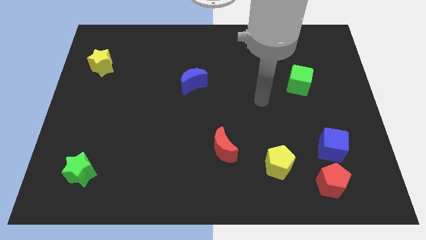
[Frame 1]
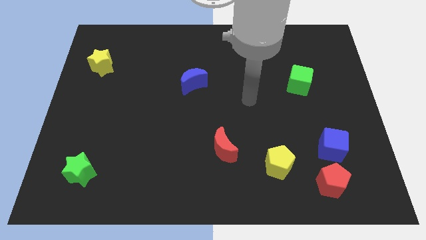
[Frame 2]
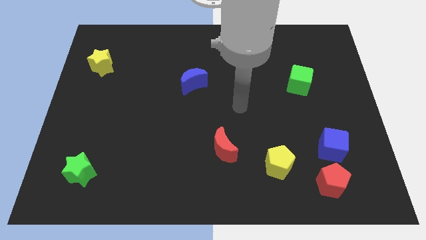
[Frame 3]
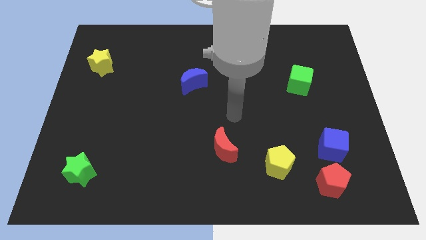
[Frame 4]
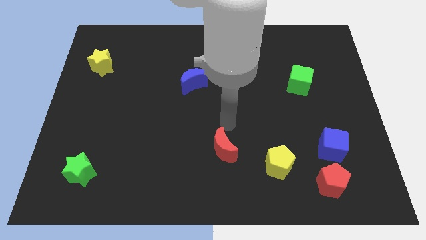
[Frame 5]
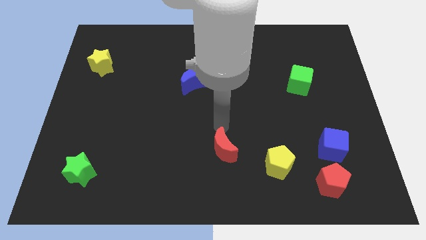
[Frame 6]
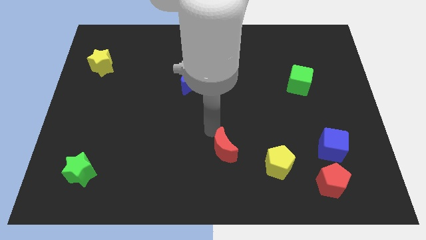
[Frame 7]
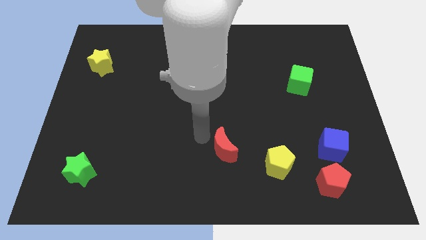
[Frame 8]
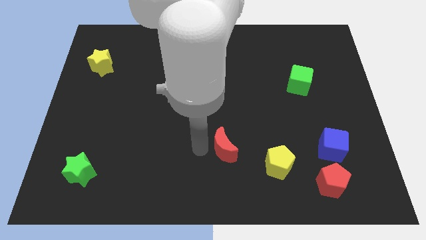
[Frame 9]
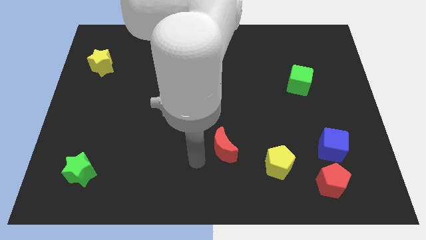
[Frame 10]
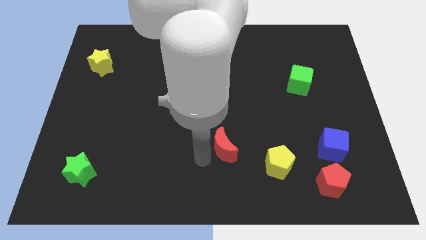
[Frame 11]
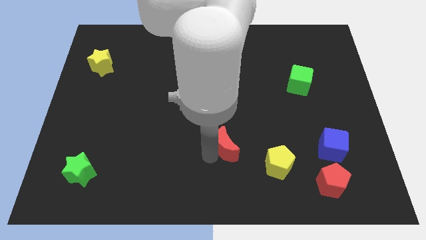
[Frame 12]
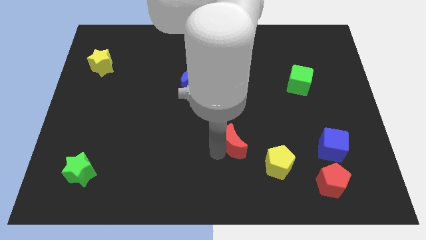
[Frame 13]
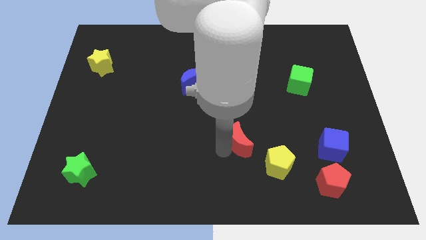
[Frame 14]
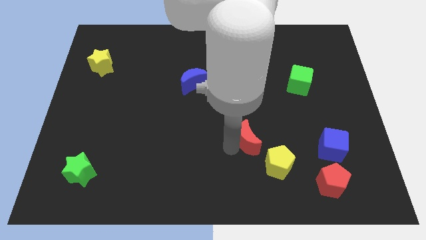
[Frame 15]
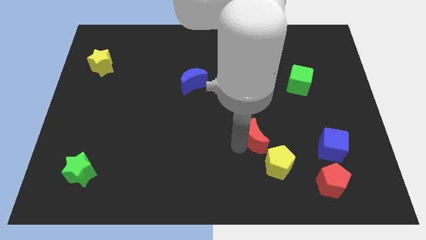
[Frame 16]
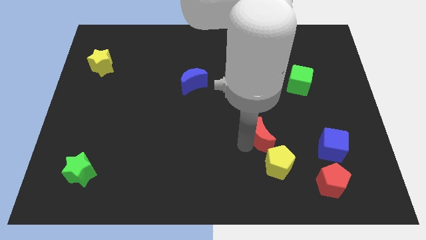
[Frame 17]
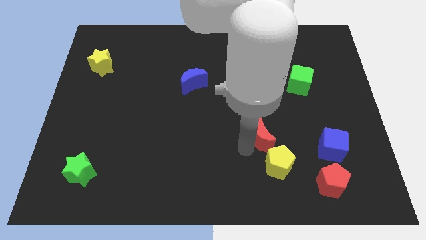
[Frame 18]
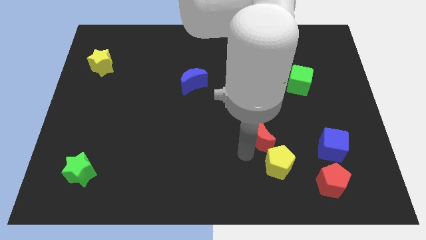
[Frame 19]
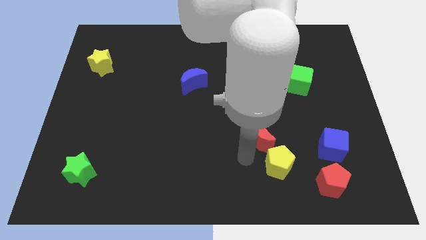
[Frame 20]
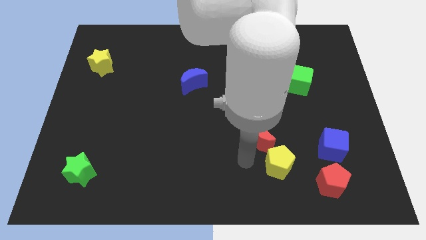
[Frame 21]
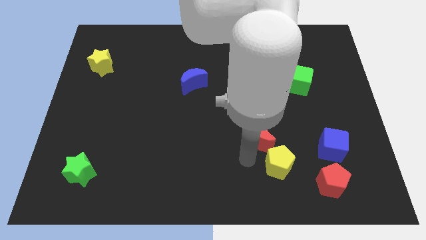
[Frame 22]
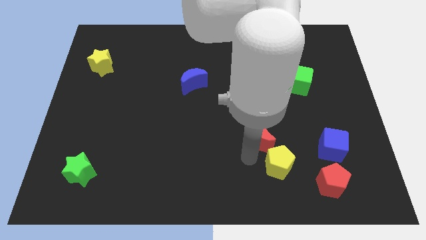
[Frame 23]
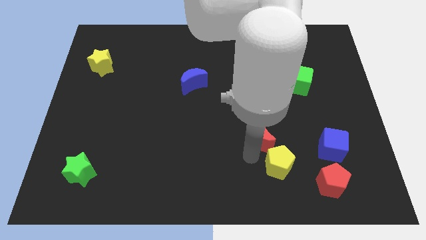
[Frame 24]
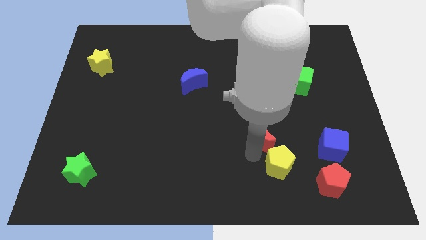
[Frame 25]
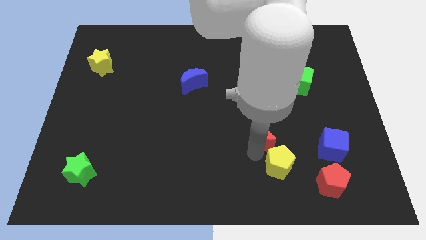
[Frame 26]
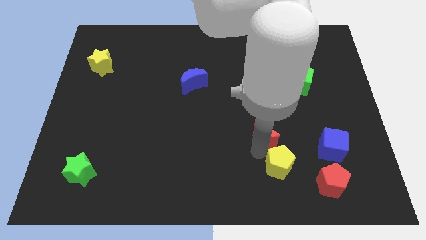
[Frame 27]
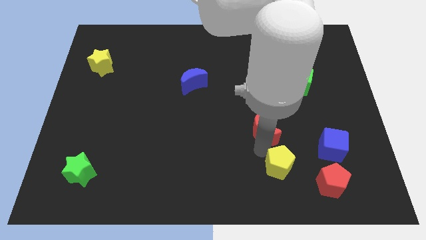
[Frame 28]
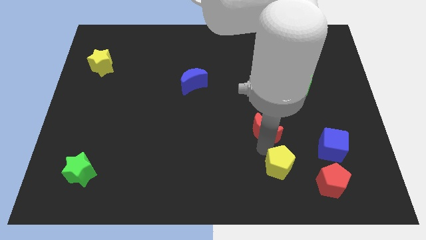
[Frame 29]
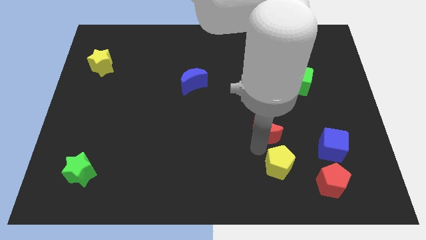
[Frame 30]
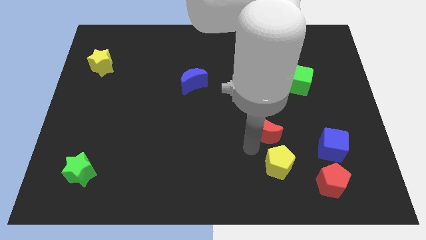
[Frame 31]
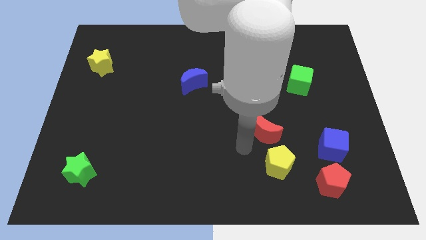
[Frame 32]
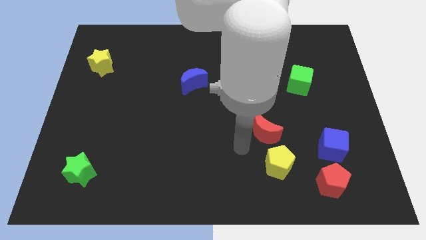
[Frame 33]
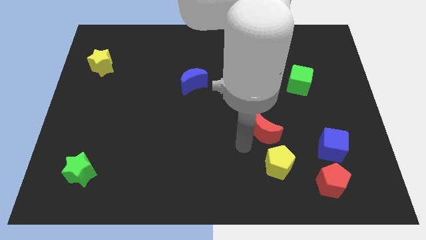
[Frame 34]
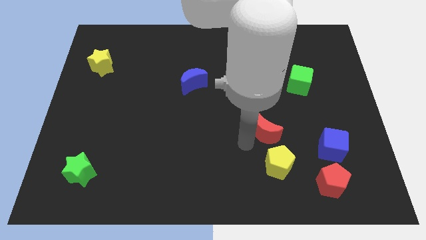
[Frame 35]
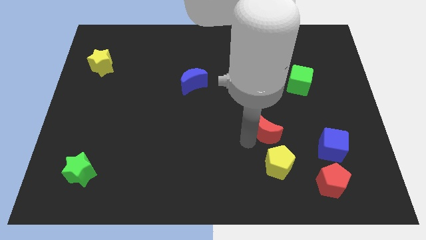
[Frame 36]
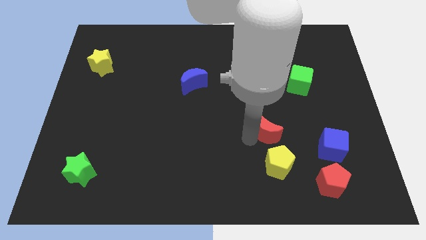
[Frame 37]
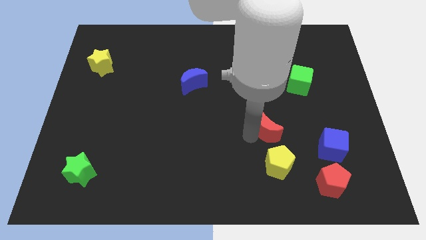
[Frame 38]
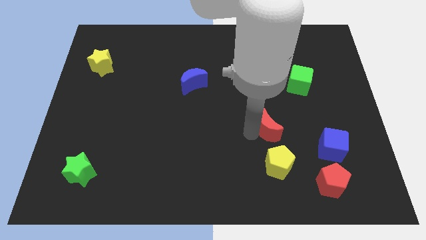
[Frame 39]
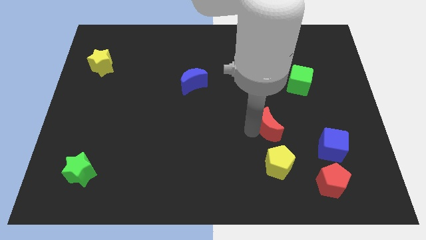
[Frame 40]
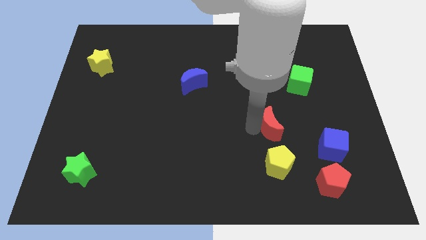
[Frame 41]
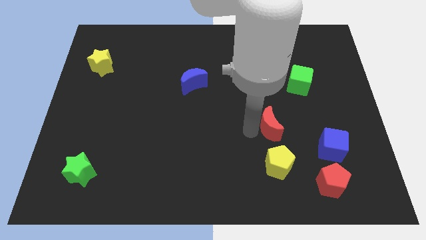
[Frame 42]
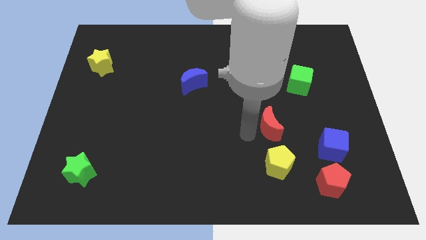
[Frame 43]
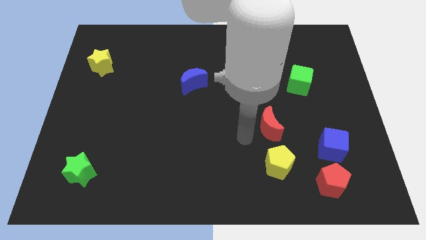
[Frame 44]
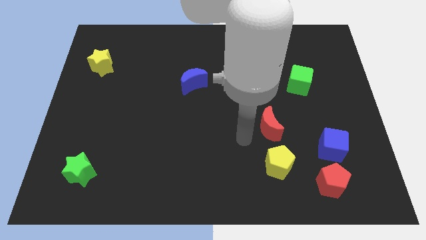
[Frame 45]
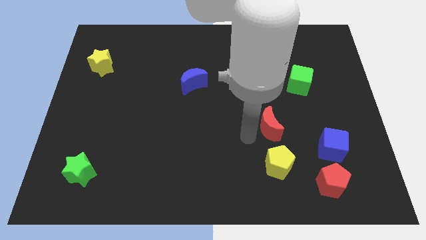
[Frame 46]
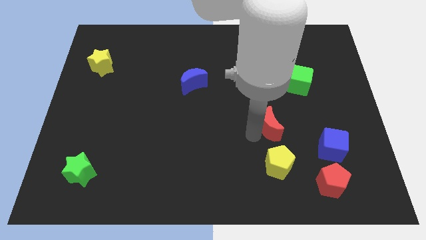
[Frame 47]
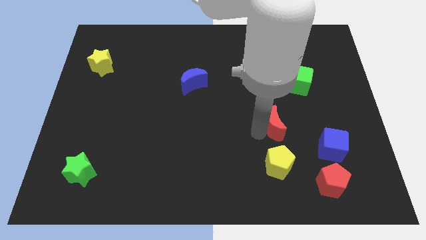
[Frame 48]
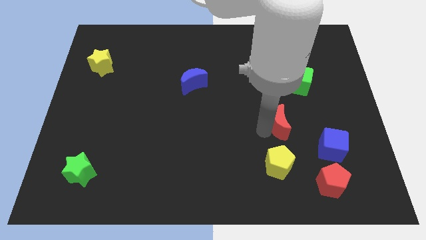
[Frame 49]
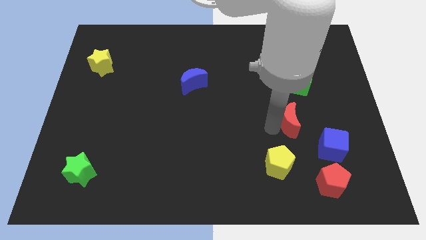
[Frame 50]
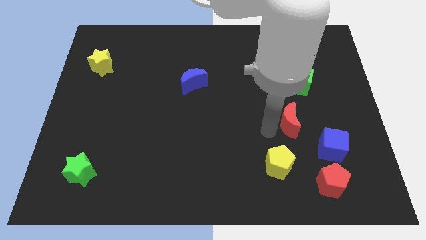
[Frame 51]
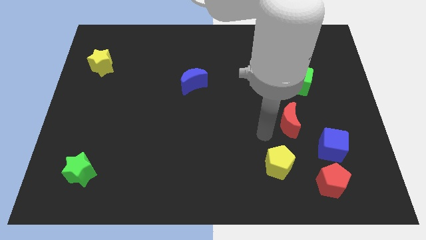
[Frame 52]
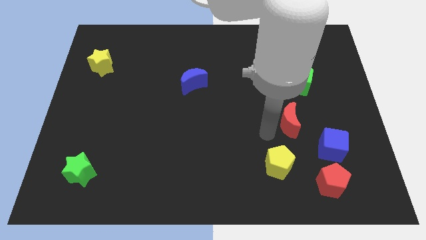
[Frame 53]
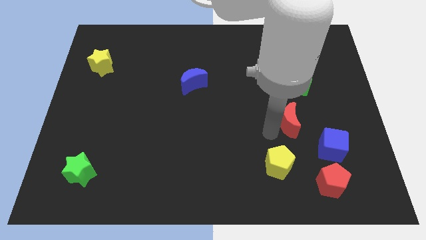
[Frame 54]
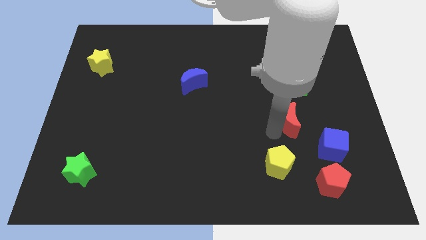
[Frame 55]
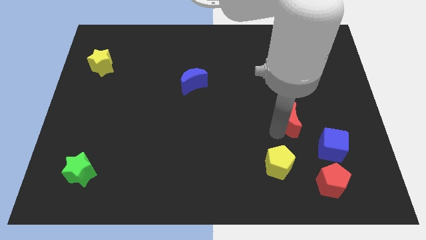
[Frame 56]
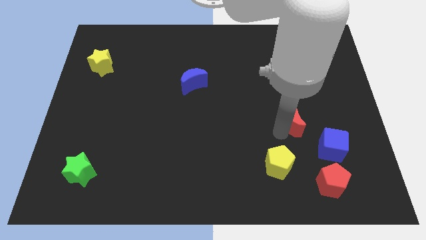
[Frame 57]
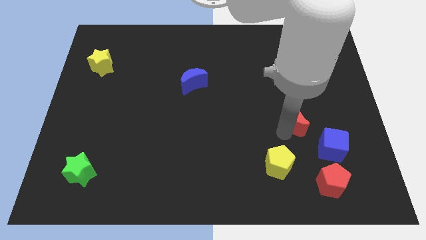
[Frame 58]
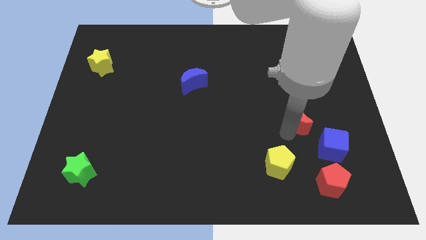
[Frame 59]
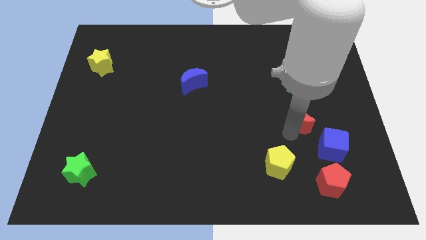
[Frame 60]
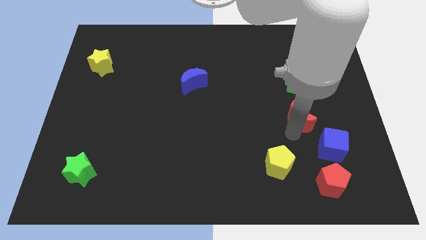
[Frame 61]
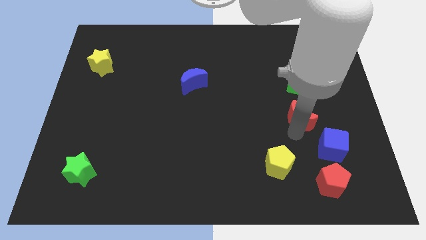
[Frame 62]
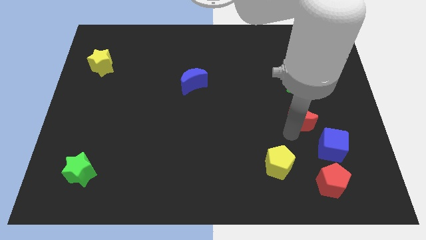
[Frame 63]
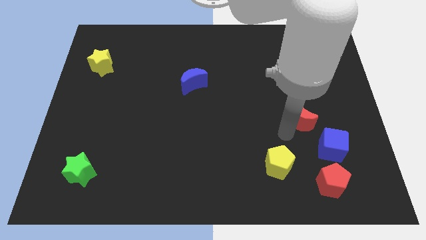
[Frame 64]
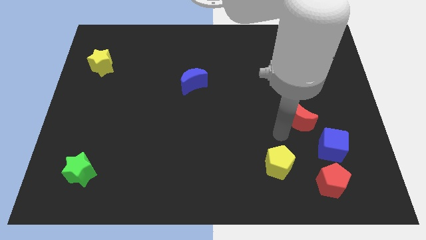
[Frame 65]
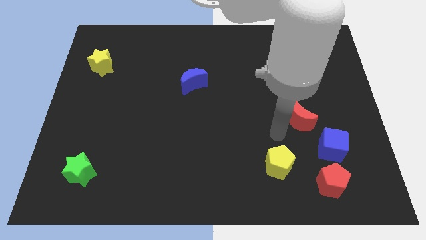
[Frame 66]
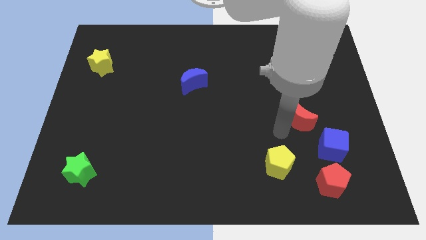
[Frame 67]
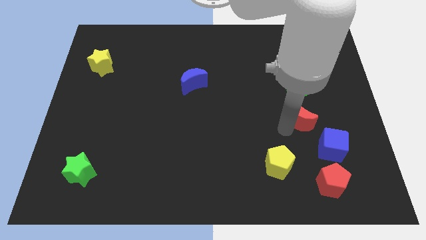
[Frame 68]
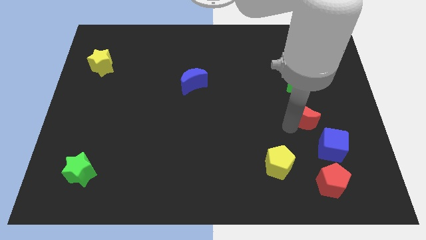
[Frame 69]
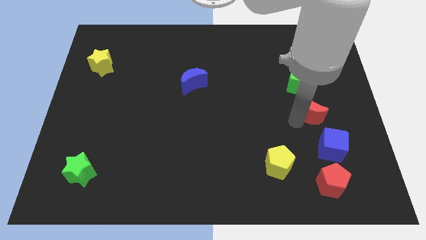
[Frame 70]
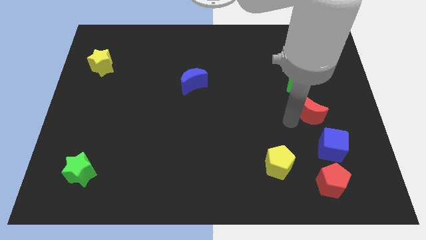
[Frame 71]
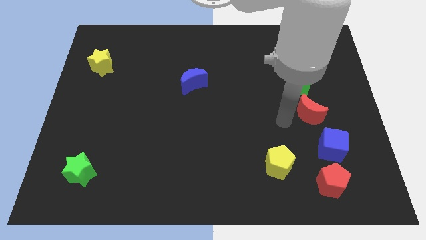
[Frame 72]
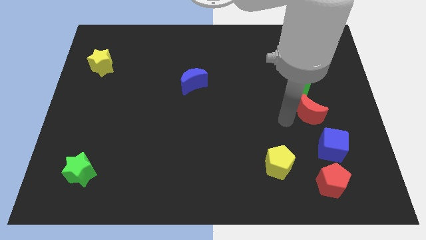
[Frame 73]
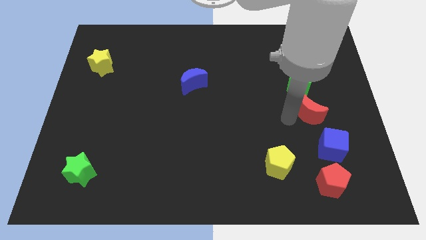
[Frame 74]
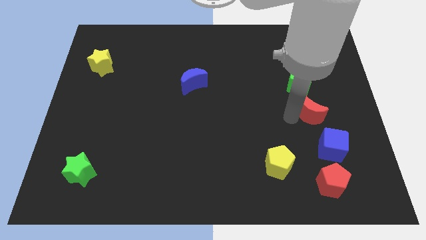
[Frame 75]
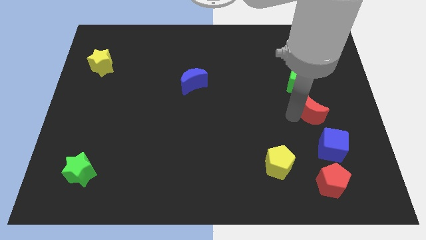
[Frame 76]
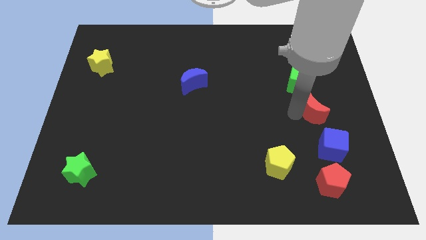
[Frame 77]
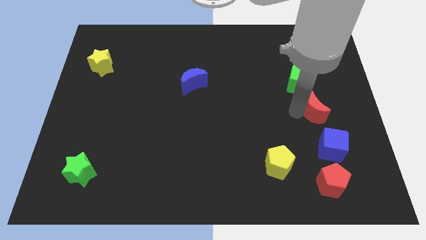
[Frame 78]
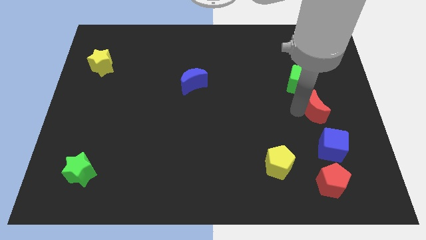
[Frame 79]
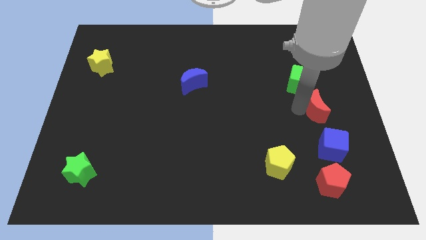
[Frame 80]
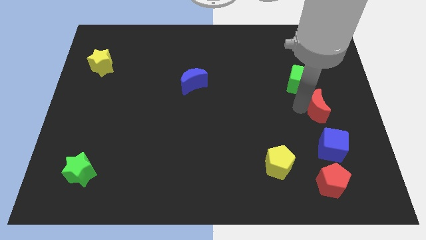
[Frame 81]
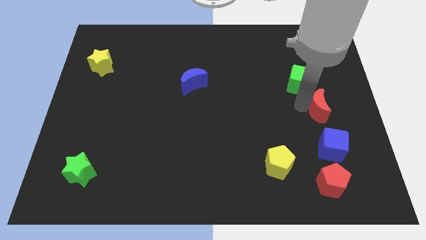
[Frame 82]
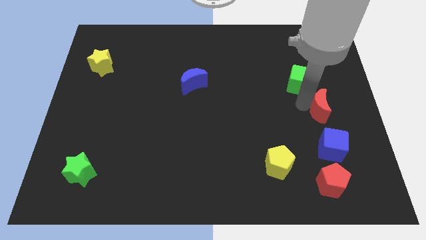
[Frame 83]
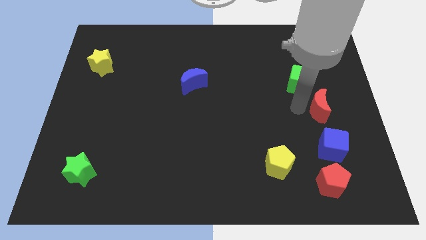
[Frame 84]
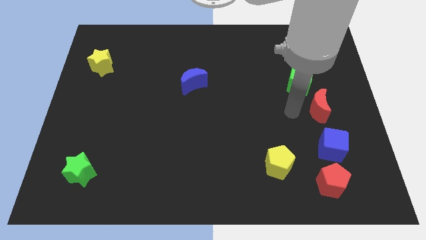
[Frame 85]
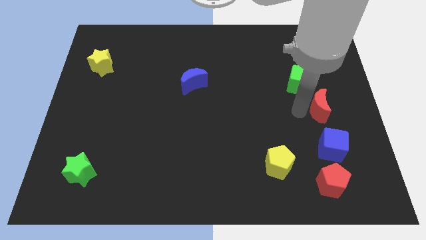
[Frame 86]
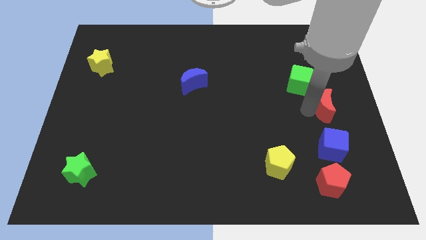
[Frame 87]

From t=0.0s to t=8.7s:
move the red moon to the center right
